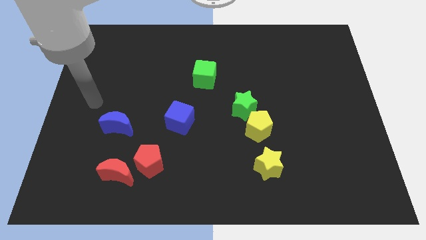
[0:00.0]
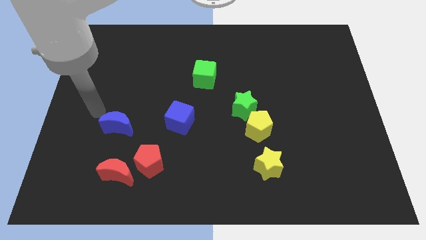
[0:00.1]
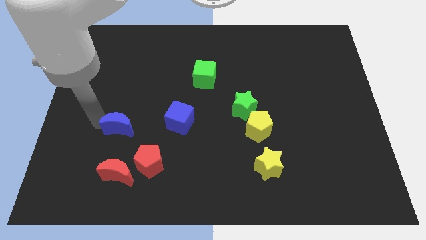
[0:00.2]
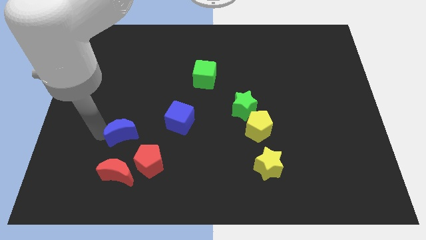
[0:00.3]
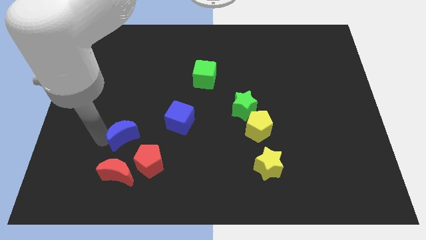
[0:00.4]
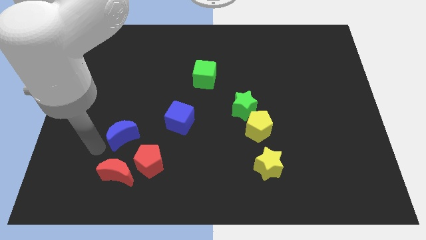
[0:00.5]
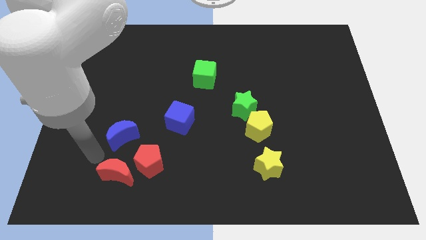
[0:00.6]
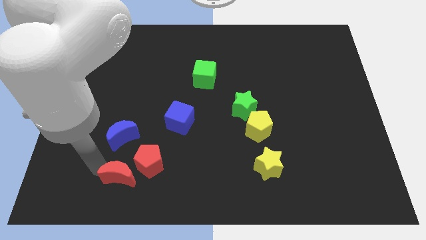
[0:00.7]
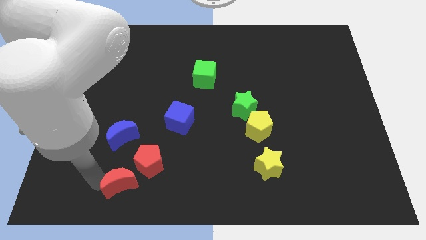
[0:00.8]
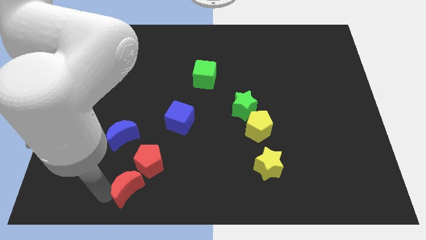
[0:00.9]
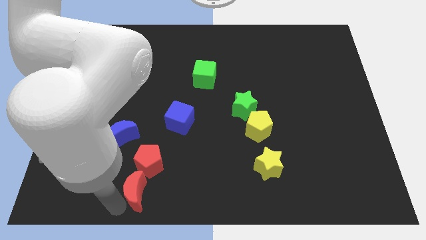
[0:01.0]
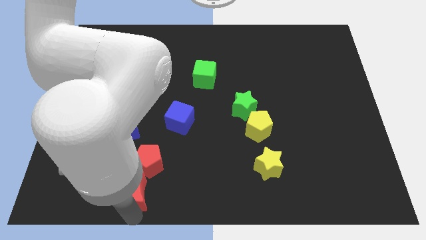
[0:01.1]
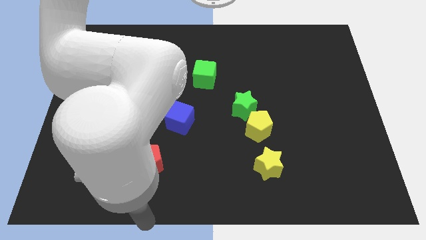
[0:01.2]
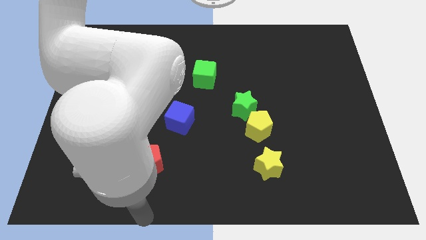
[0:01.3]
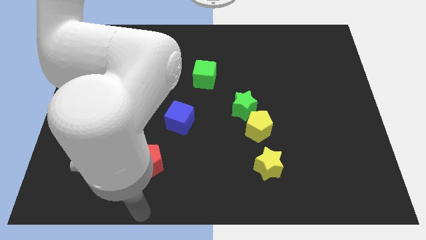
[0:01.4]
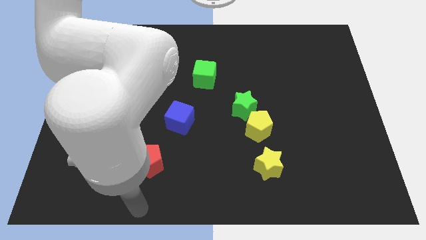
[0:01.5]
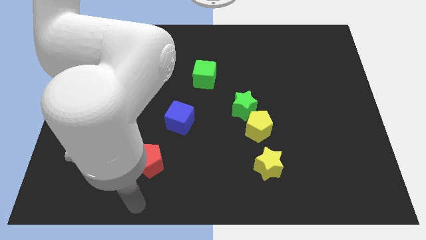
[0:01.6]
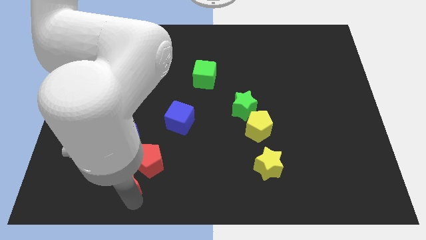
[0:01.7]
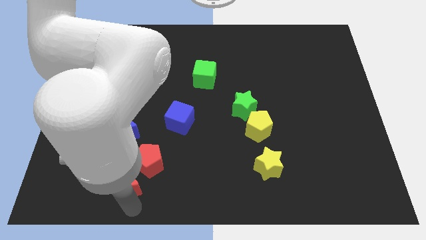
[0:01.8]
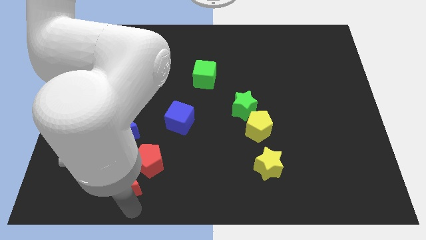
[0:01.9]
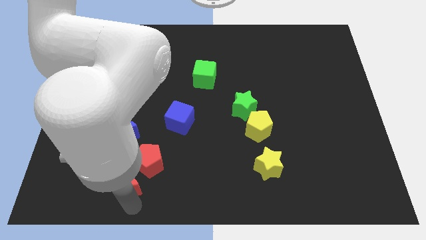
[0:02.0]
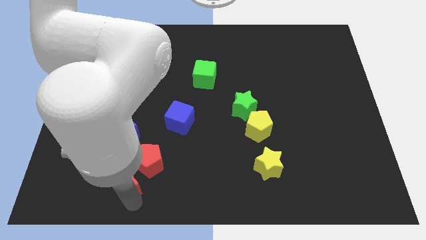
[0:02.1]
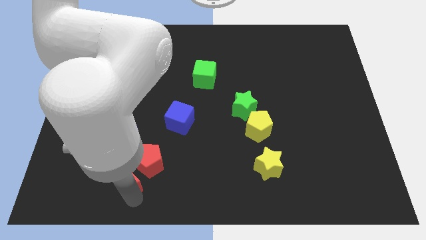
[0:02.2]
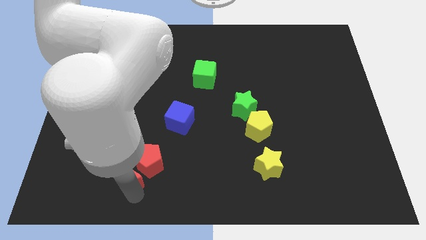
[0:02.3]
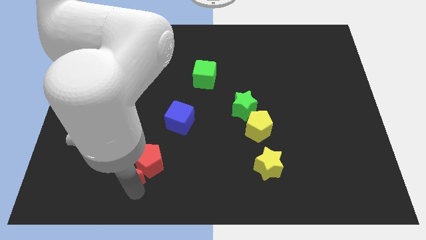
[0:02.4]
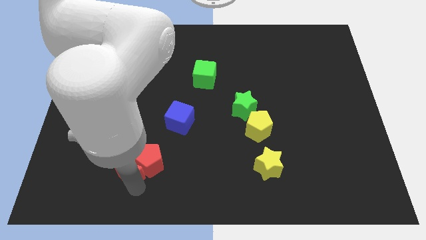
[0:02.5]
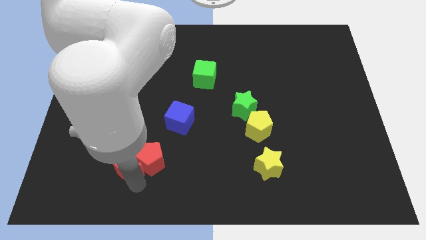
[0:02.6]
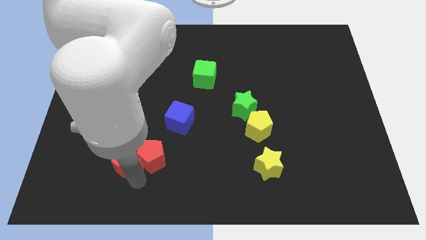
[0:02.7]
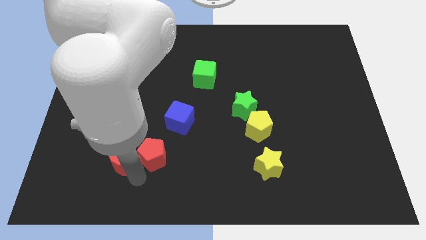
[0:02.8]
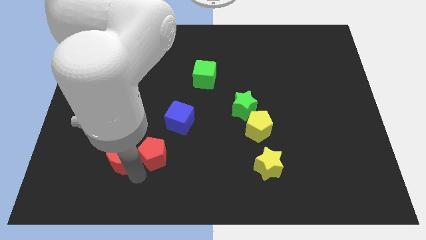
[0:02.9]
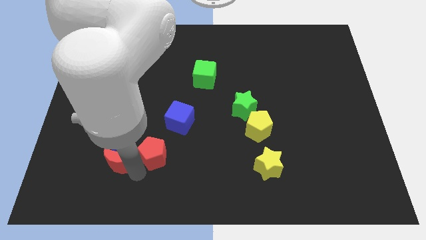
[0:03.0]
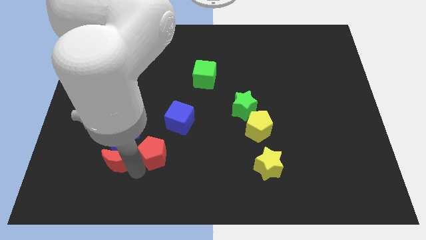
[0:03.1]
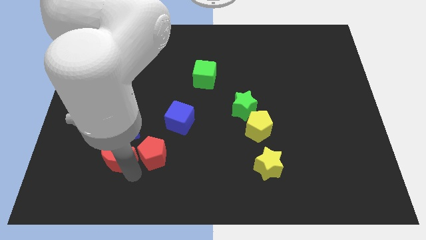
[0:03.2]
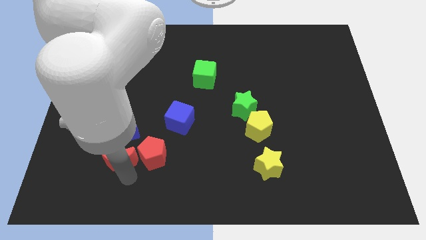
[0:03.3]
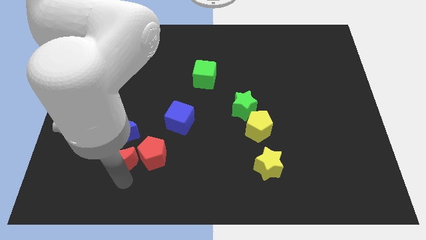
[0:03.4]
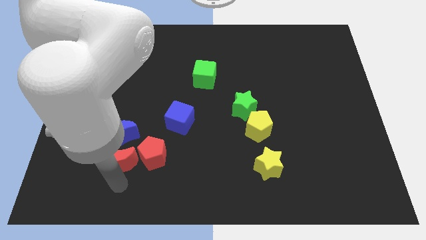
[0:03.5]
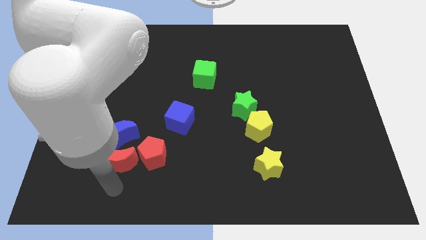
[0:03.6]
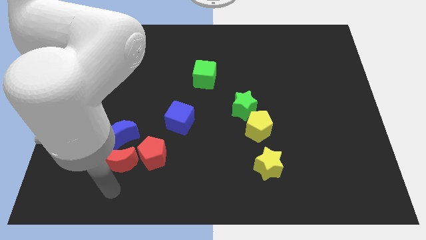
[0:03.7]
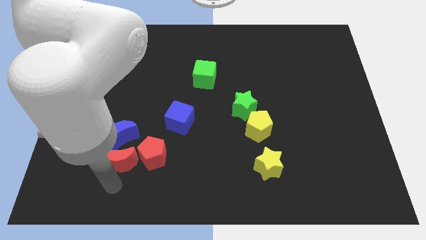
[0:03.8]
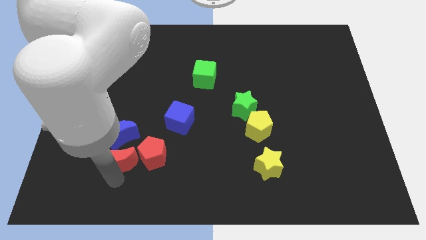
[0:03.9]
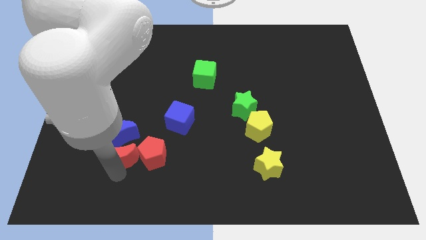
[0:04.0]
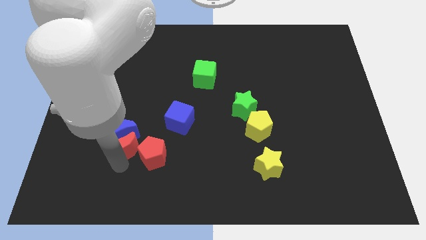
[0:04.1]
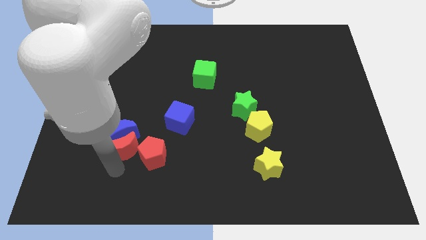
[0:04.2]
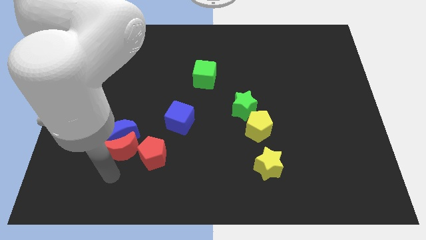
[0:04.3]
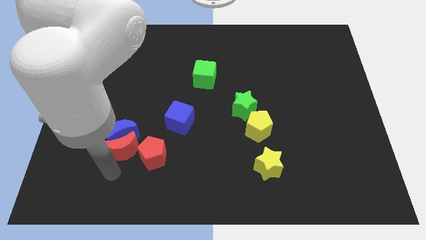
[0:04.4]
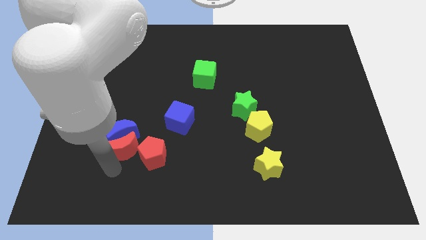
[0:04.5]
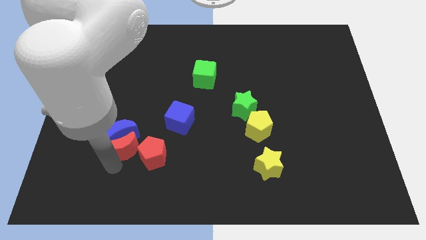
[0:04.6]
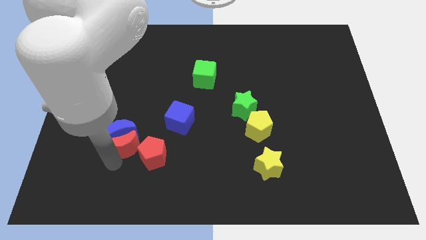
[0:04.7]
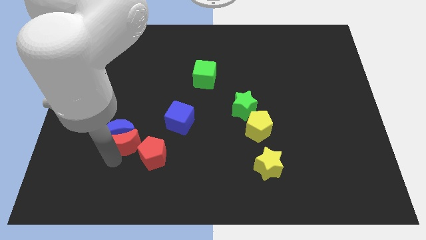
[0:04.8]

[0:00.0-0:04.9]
slightly move the red moon upwards

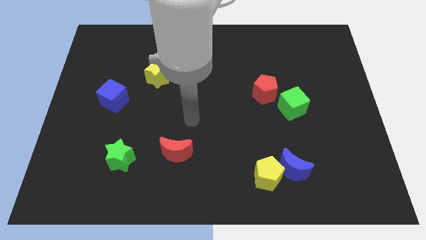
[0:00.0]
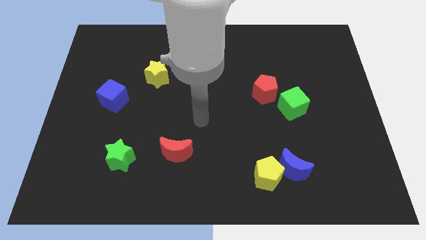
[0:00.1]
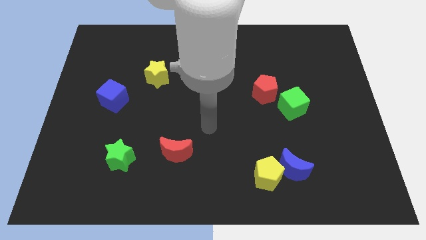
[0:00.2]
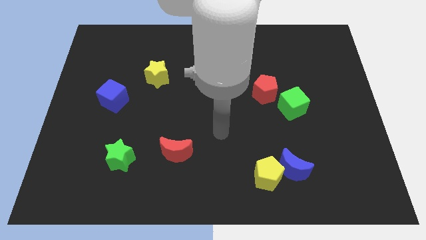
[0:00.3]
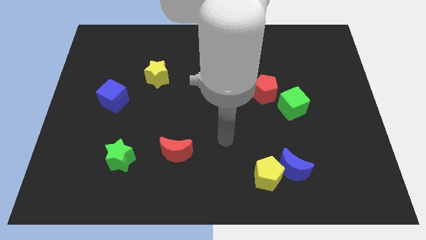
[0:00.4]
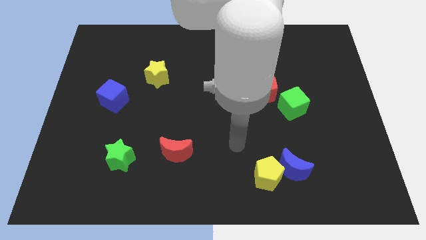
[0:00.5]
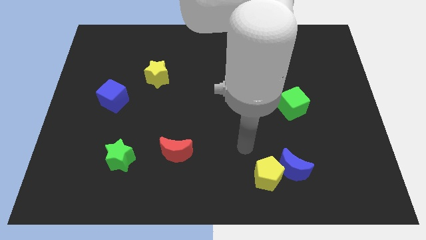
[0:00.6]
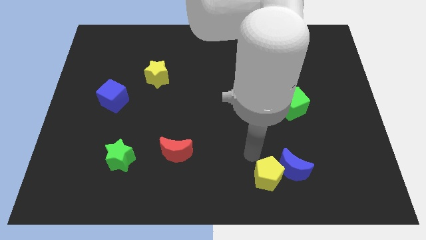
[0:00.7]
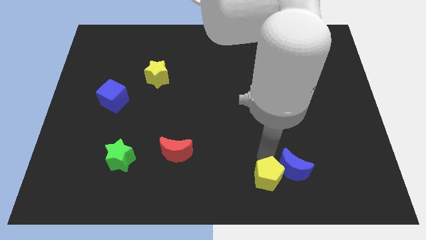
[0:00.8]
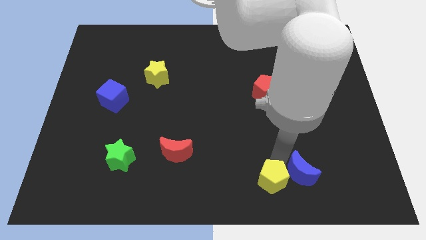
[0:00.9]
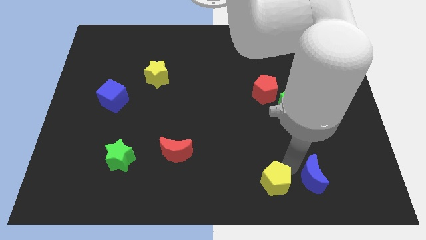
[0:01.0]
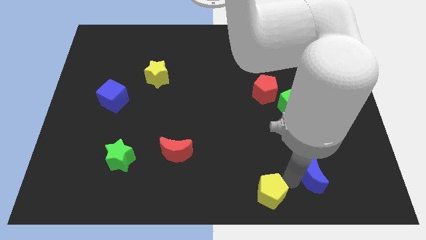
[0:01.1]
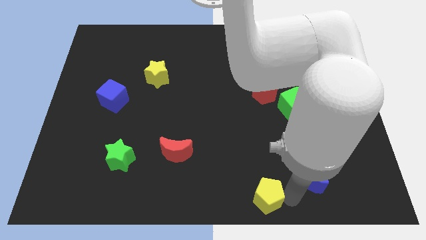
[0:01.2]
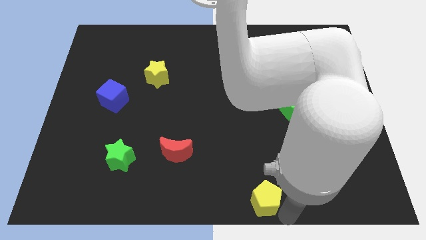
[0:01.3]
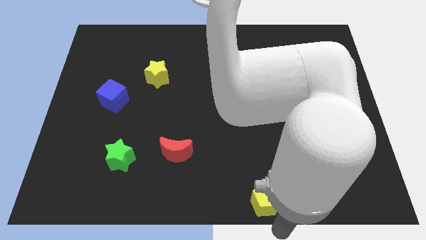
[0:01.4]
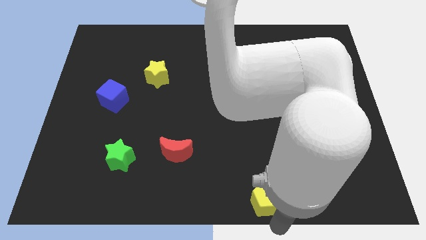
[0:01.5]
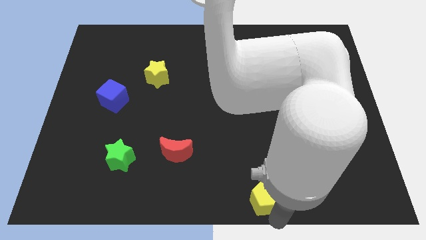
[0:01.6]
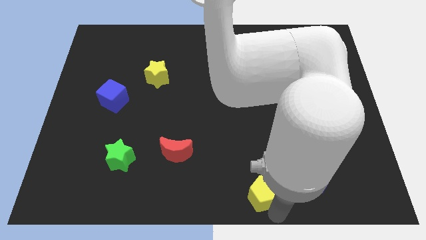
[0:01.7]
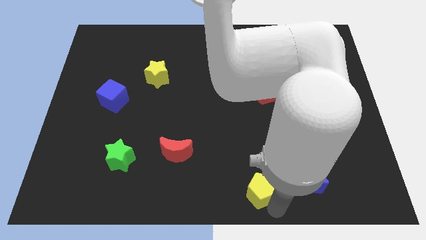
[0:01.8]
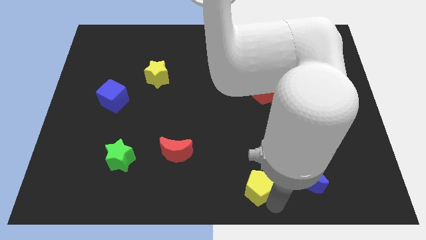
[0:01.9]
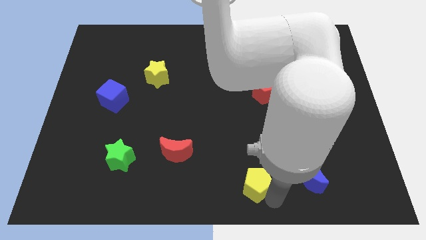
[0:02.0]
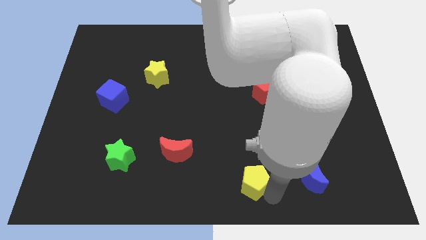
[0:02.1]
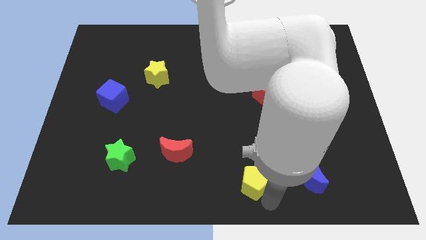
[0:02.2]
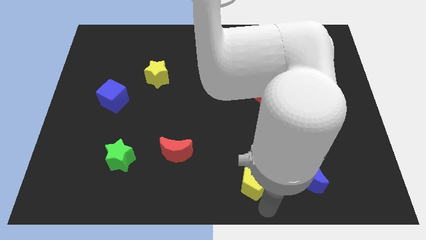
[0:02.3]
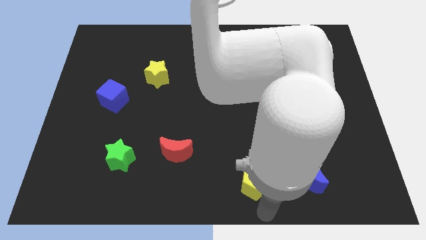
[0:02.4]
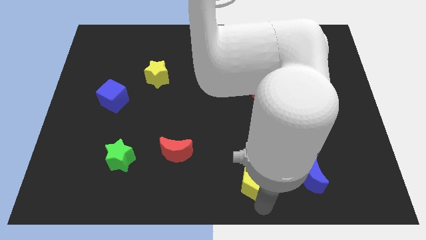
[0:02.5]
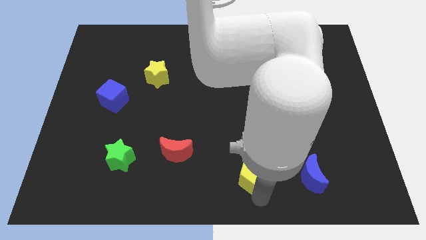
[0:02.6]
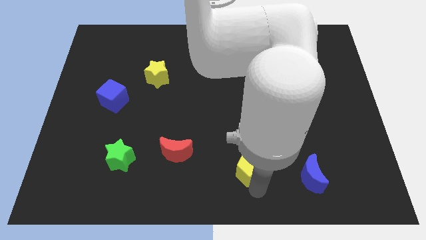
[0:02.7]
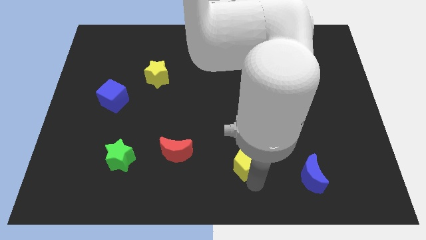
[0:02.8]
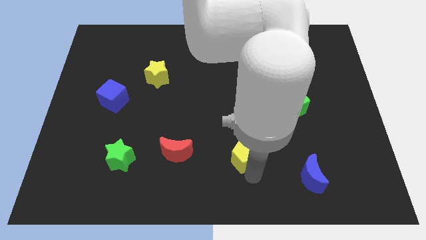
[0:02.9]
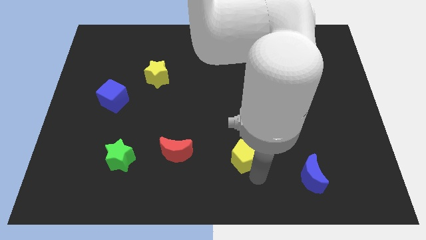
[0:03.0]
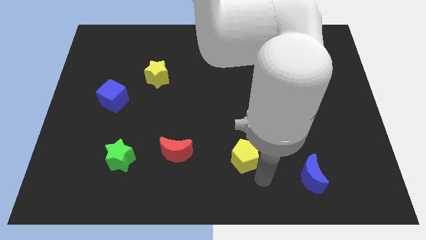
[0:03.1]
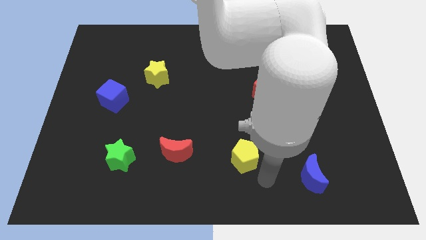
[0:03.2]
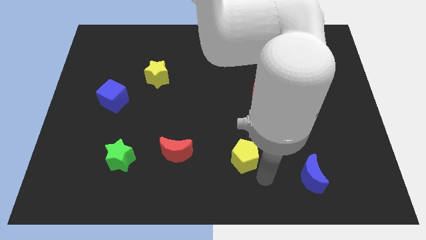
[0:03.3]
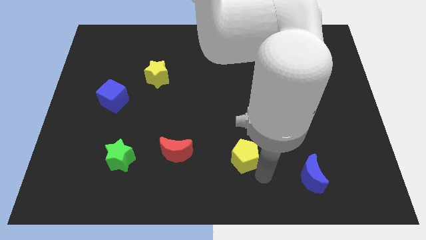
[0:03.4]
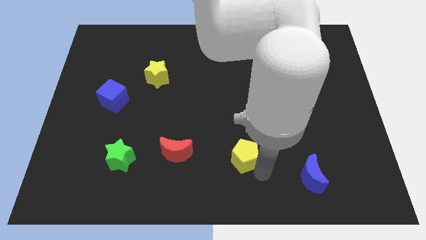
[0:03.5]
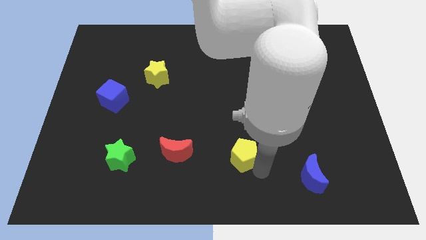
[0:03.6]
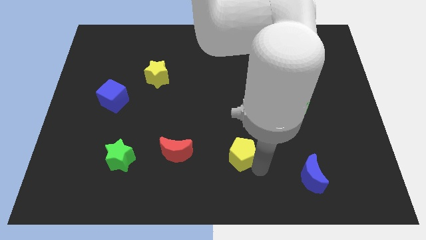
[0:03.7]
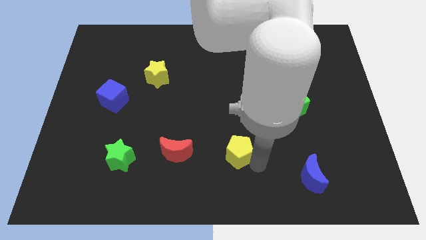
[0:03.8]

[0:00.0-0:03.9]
move the yellow pentagon up and left a little bit
